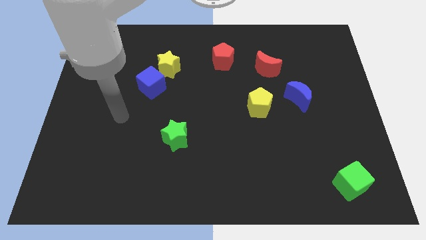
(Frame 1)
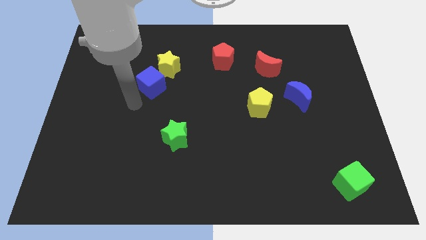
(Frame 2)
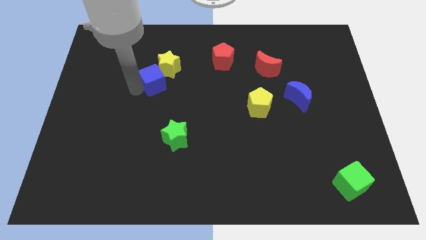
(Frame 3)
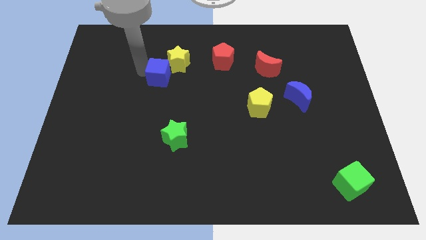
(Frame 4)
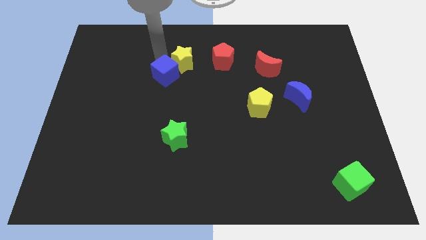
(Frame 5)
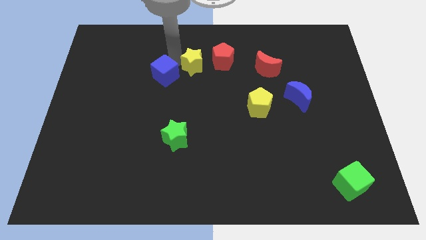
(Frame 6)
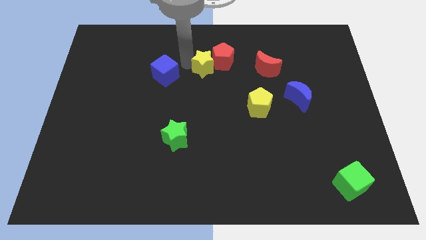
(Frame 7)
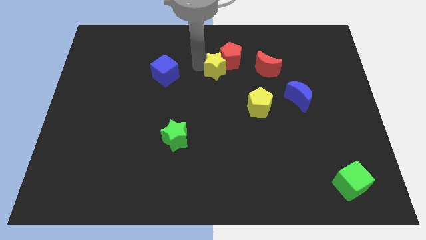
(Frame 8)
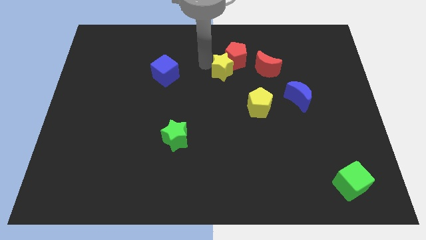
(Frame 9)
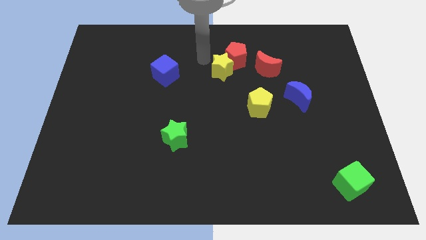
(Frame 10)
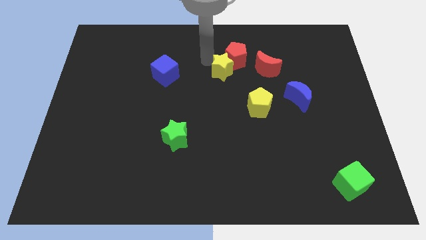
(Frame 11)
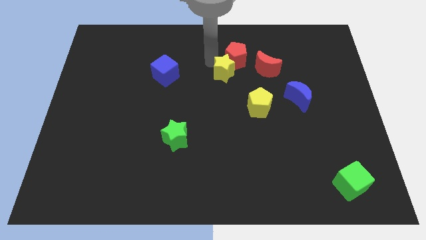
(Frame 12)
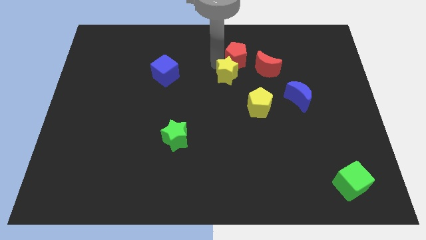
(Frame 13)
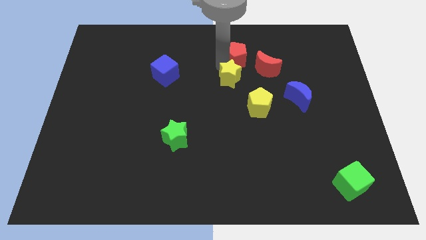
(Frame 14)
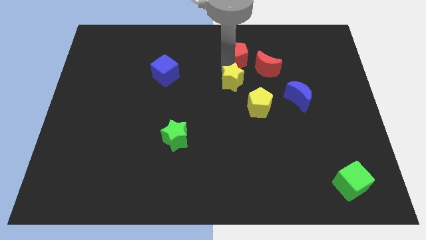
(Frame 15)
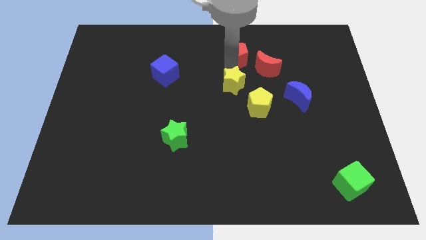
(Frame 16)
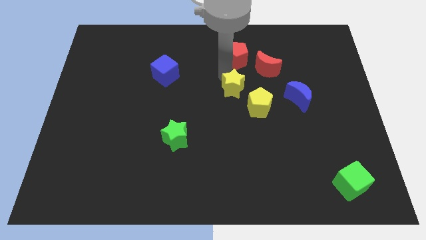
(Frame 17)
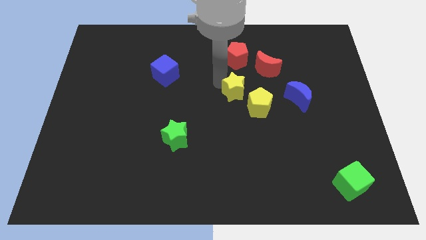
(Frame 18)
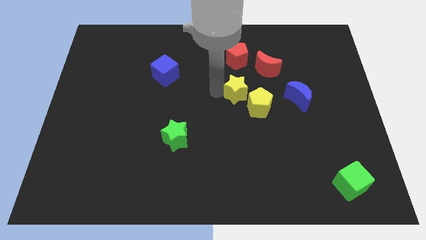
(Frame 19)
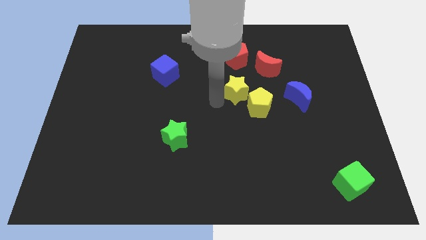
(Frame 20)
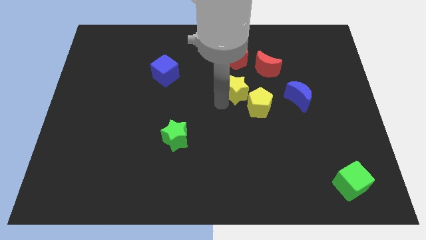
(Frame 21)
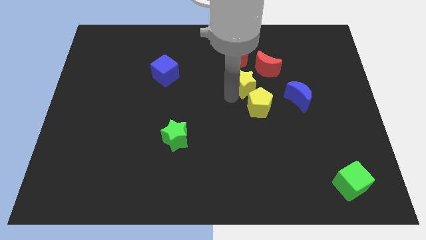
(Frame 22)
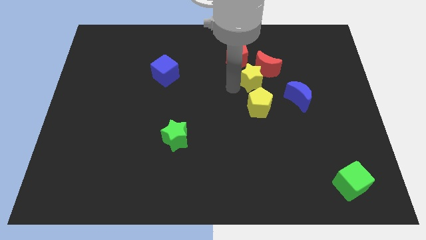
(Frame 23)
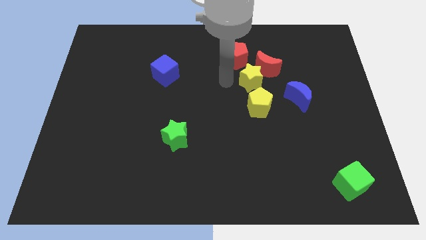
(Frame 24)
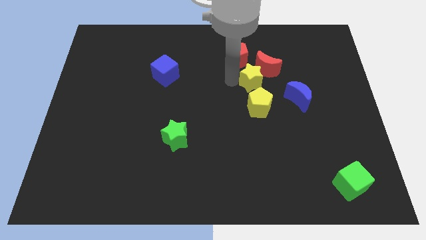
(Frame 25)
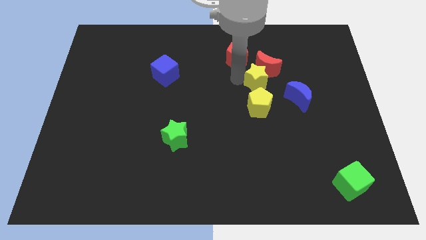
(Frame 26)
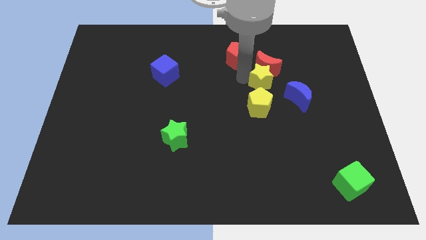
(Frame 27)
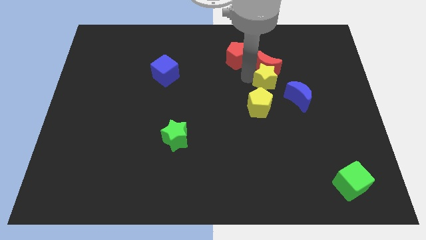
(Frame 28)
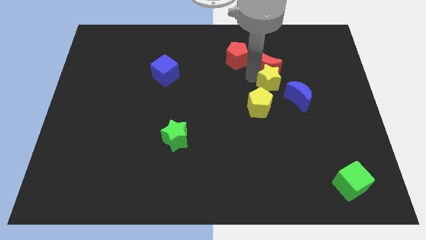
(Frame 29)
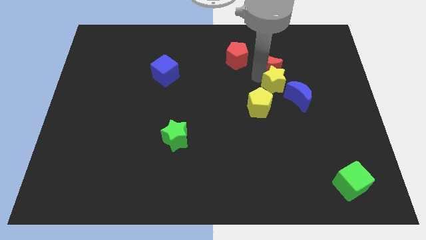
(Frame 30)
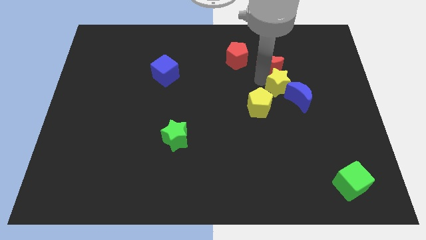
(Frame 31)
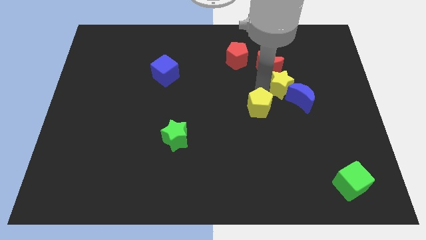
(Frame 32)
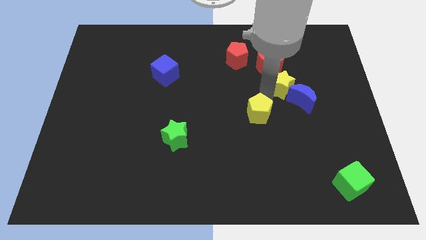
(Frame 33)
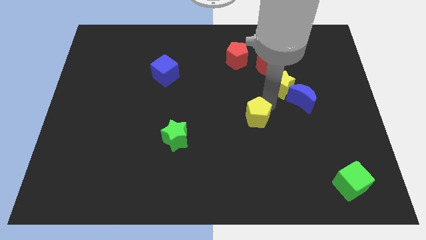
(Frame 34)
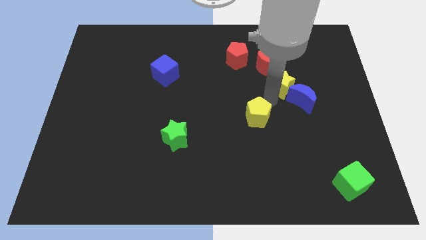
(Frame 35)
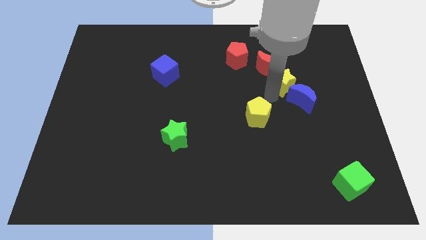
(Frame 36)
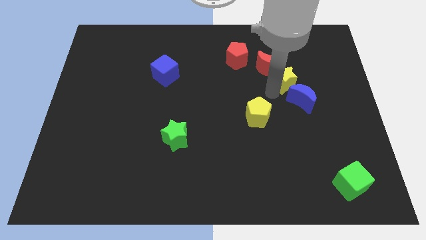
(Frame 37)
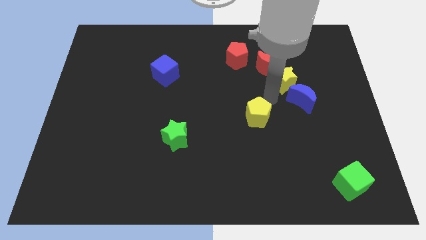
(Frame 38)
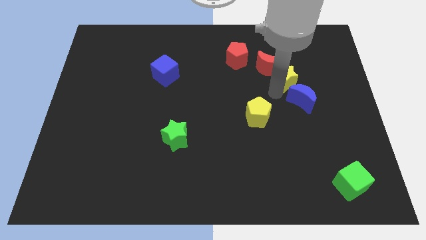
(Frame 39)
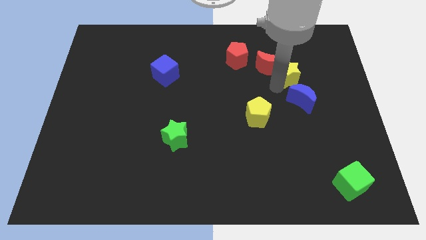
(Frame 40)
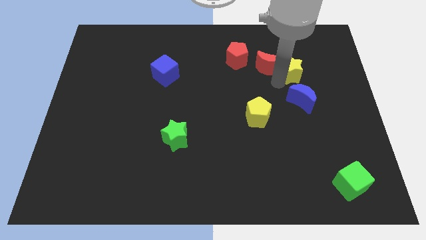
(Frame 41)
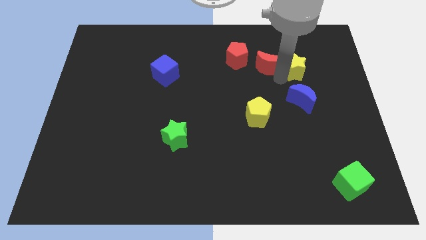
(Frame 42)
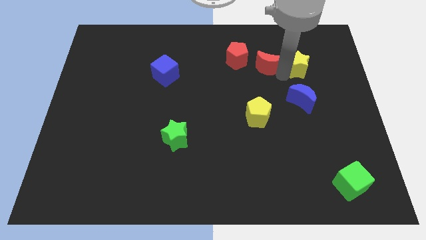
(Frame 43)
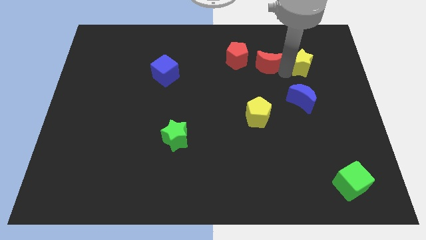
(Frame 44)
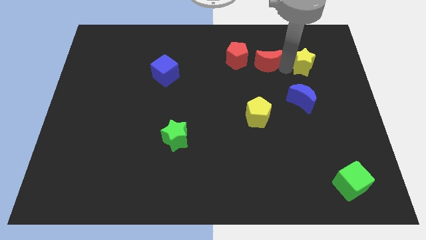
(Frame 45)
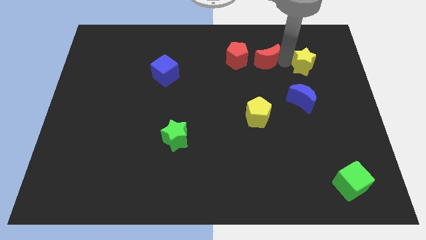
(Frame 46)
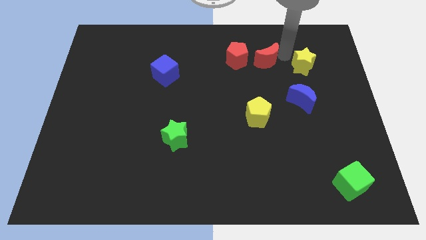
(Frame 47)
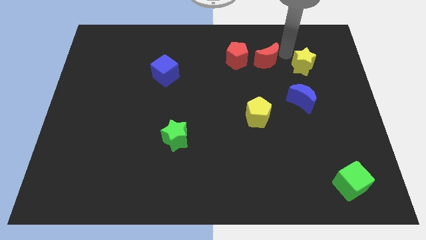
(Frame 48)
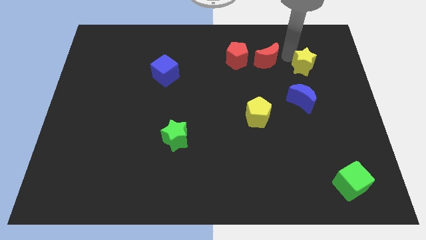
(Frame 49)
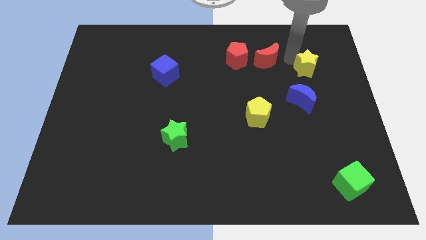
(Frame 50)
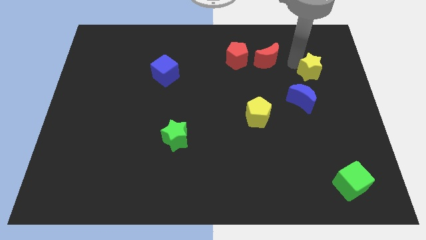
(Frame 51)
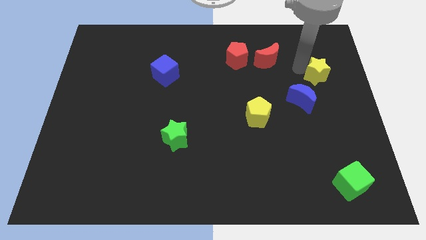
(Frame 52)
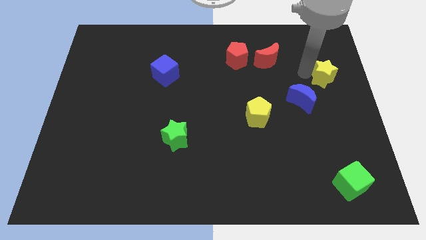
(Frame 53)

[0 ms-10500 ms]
move the yellow star to the right side of the board
